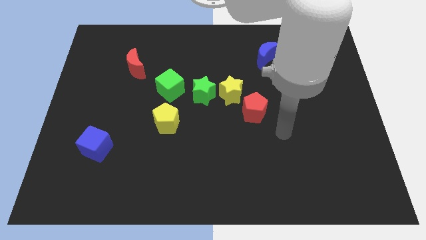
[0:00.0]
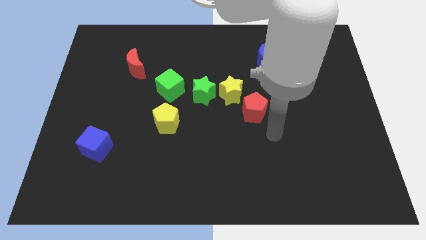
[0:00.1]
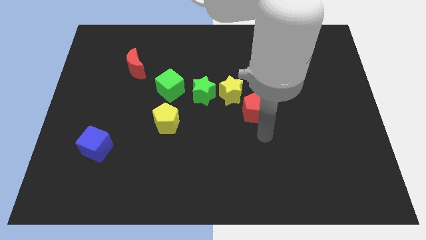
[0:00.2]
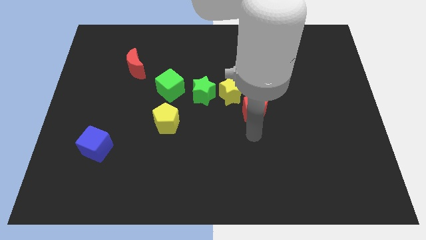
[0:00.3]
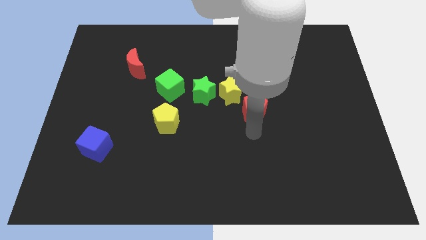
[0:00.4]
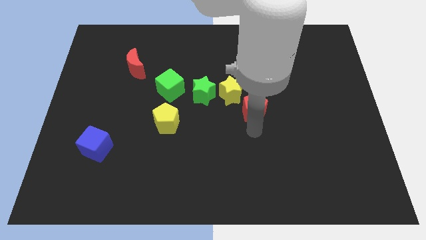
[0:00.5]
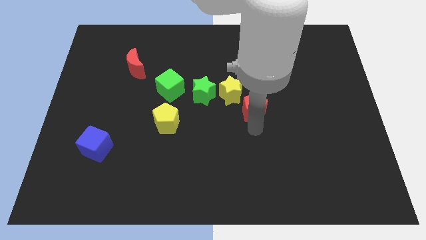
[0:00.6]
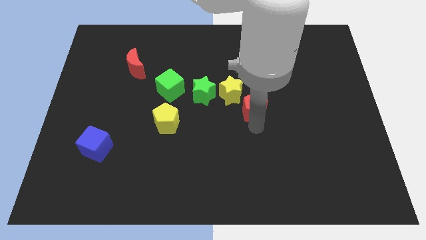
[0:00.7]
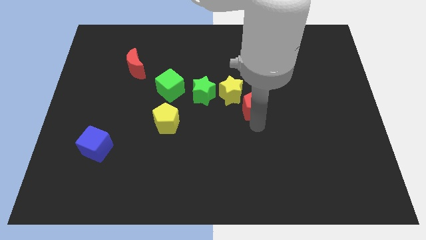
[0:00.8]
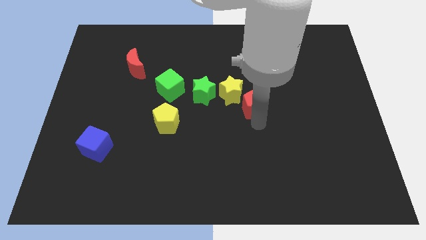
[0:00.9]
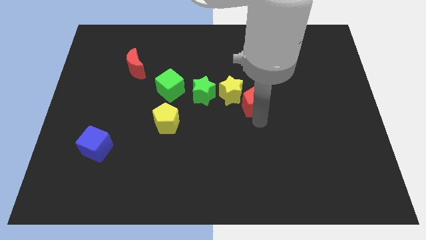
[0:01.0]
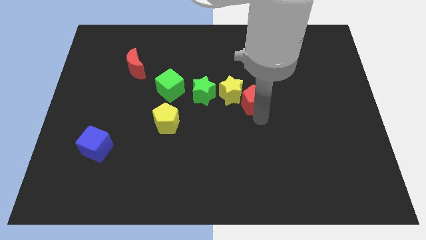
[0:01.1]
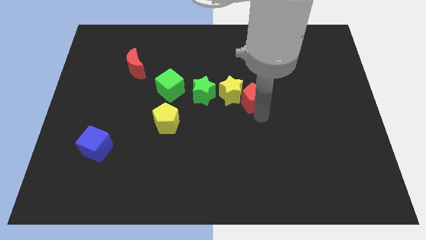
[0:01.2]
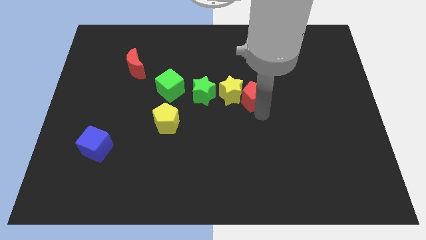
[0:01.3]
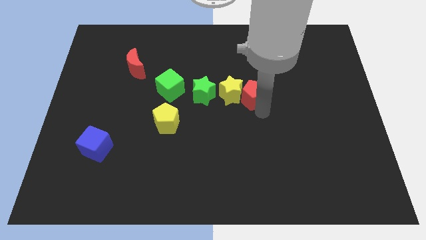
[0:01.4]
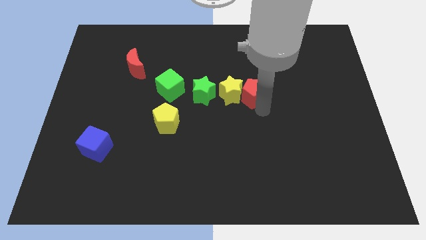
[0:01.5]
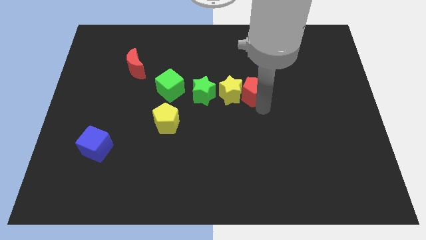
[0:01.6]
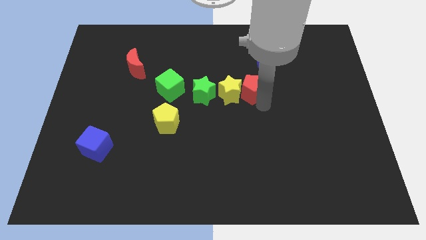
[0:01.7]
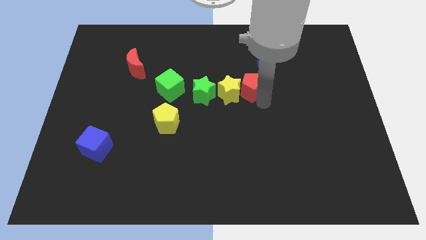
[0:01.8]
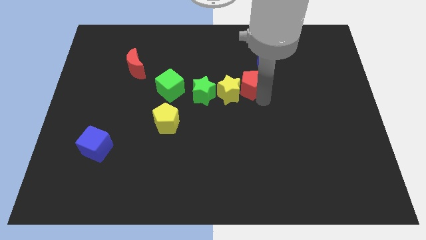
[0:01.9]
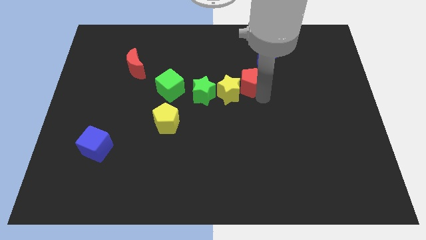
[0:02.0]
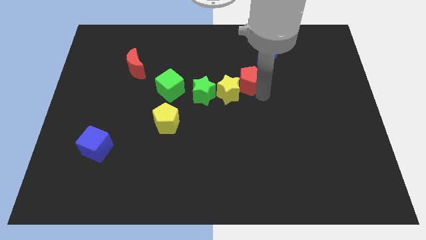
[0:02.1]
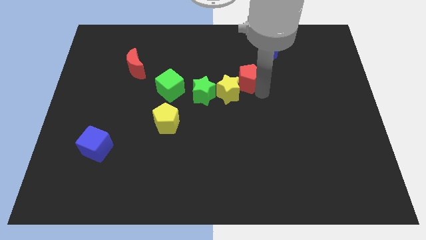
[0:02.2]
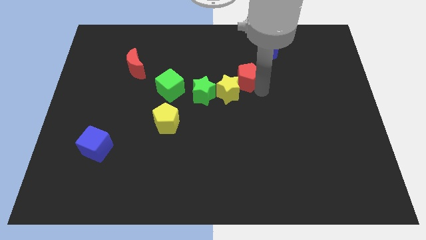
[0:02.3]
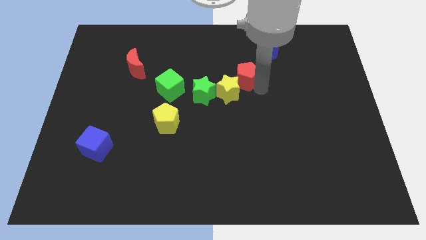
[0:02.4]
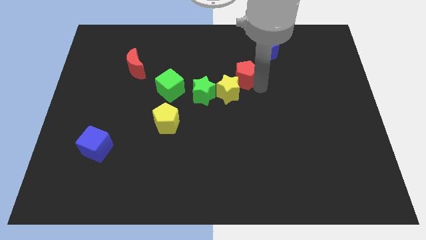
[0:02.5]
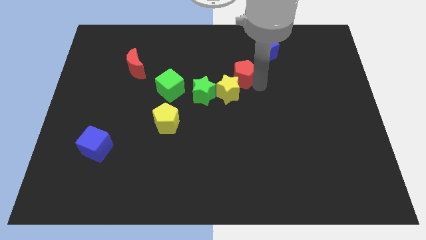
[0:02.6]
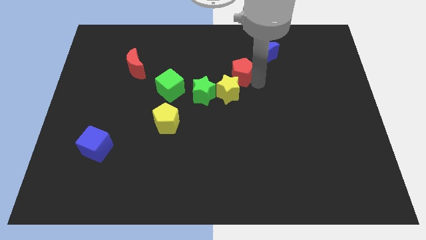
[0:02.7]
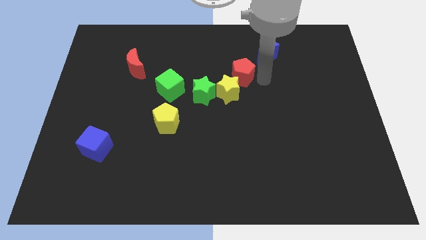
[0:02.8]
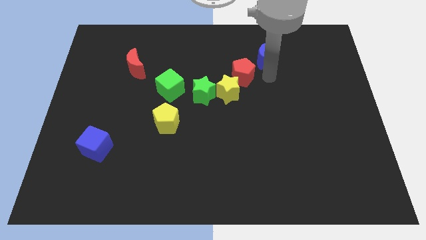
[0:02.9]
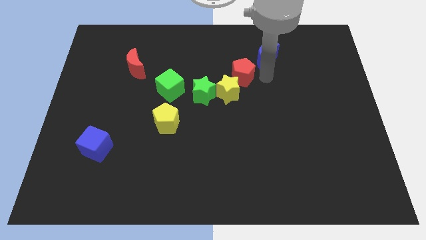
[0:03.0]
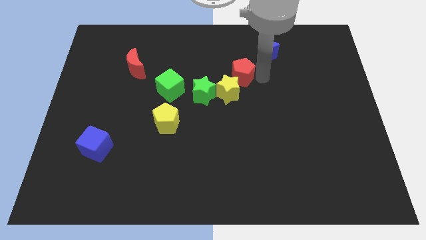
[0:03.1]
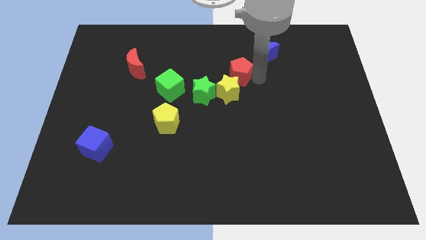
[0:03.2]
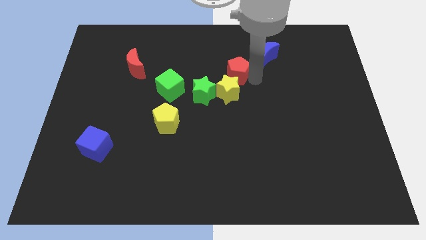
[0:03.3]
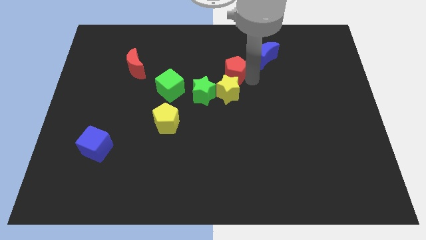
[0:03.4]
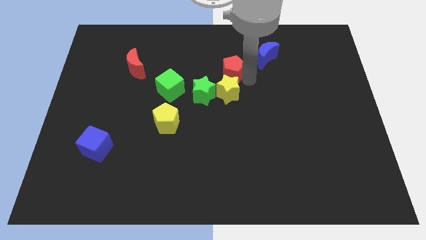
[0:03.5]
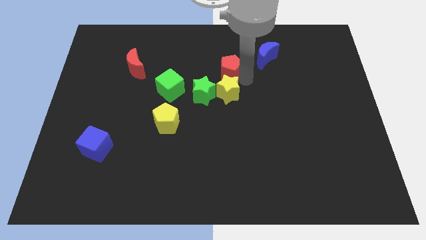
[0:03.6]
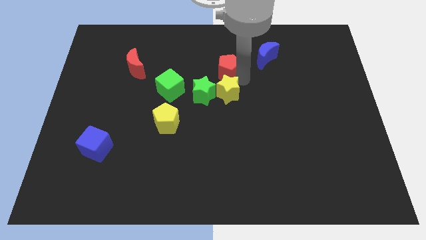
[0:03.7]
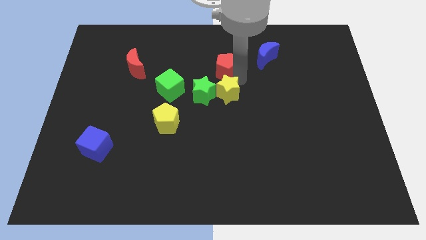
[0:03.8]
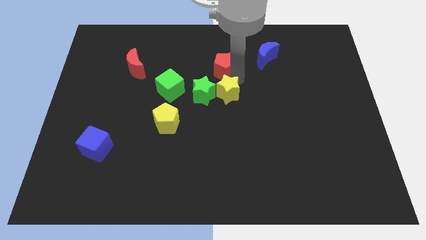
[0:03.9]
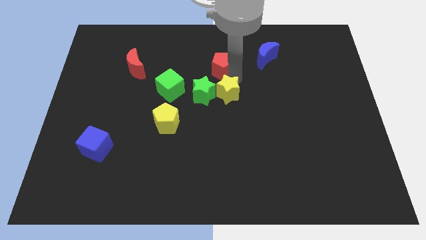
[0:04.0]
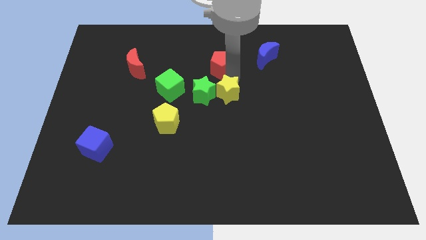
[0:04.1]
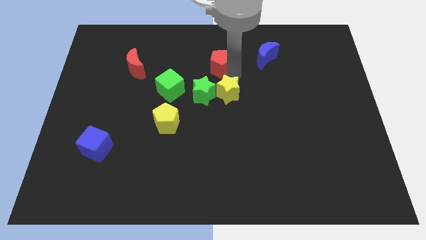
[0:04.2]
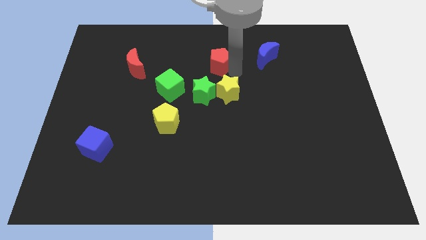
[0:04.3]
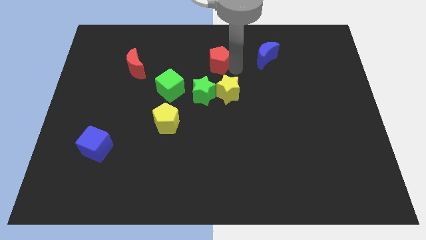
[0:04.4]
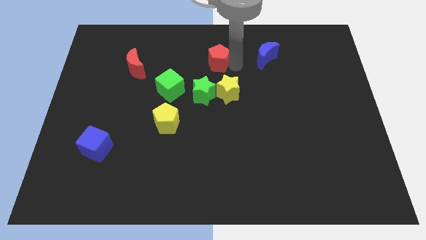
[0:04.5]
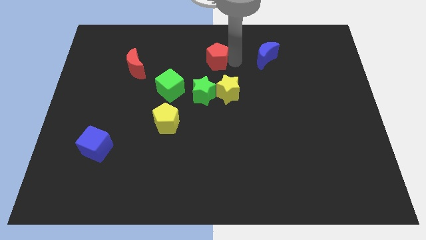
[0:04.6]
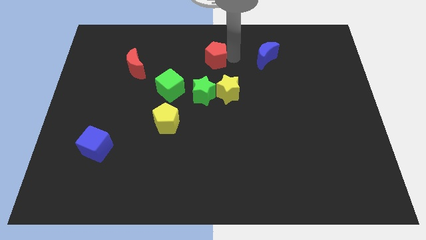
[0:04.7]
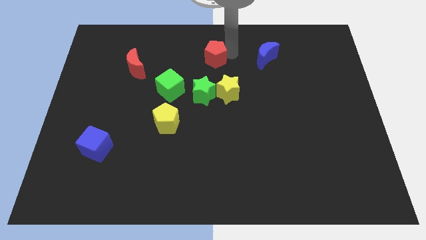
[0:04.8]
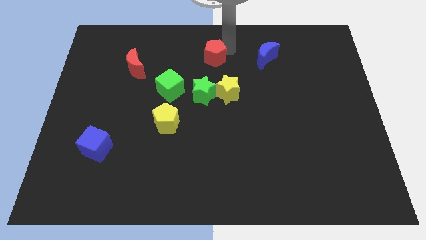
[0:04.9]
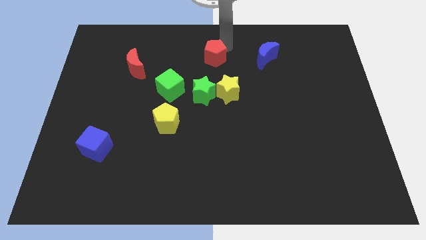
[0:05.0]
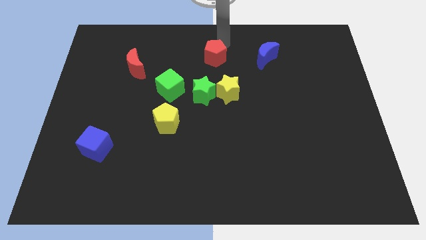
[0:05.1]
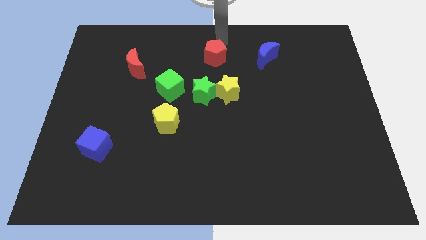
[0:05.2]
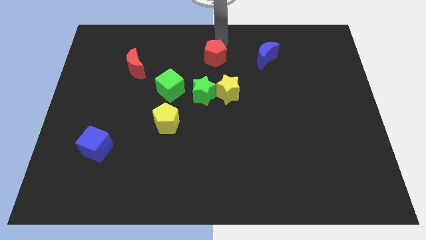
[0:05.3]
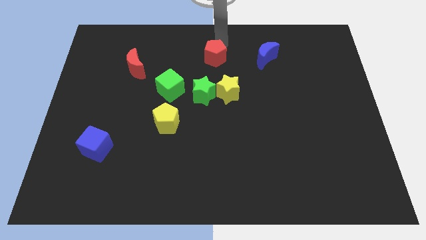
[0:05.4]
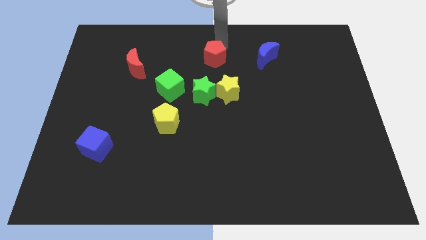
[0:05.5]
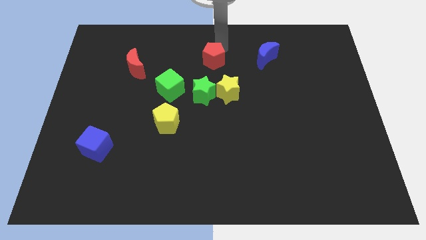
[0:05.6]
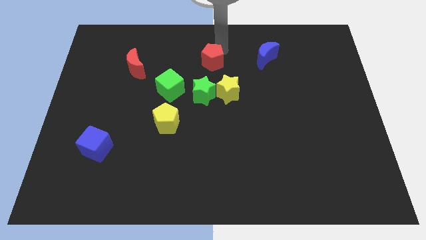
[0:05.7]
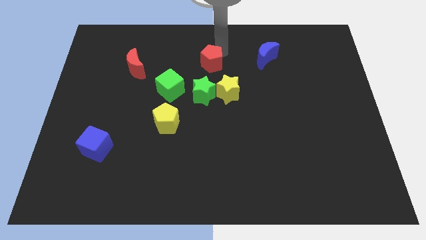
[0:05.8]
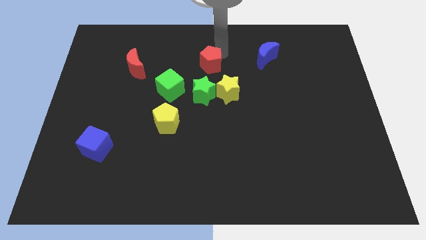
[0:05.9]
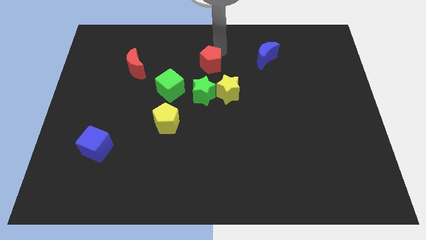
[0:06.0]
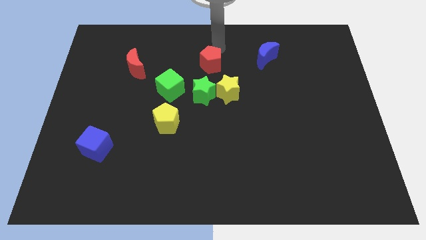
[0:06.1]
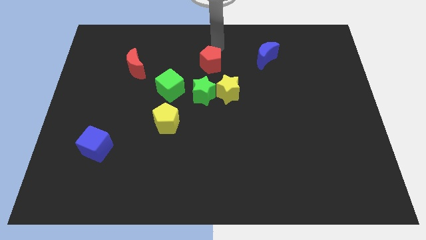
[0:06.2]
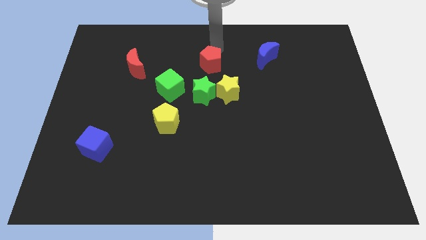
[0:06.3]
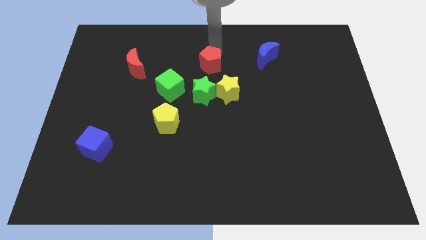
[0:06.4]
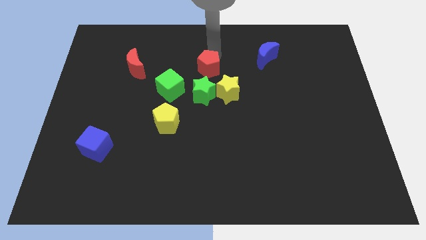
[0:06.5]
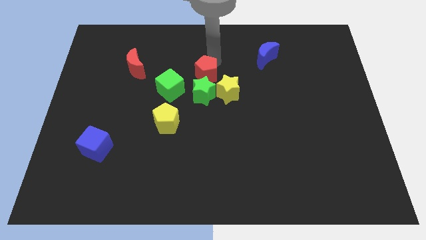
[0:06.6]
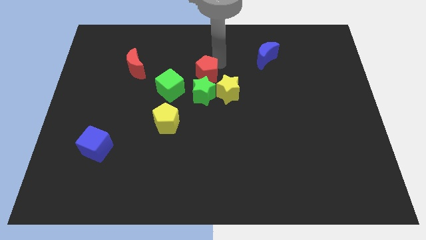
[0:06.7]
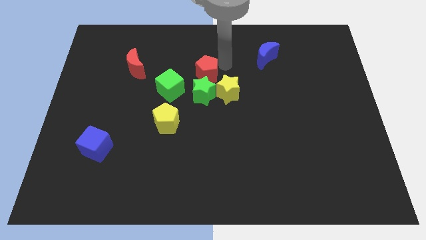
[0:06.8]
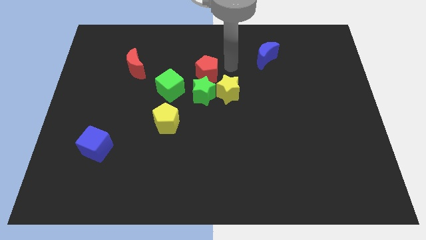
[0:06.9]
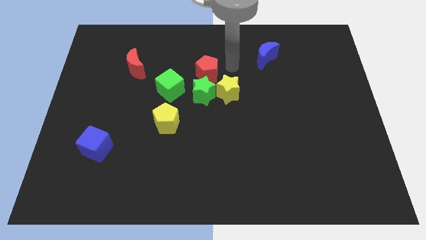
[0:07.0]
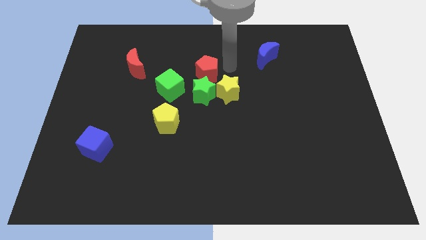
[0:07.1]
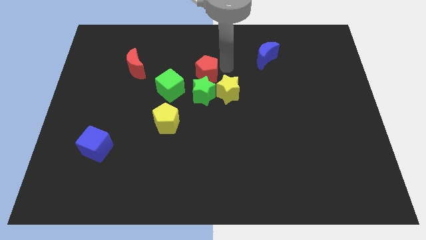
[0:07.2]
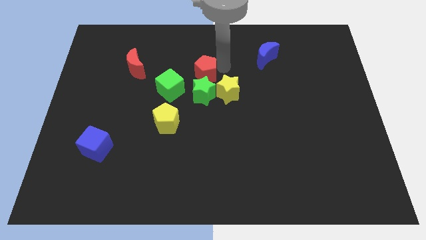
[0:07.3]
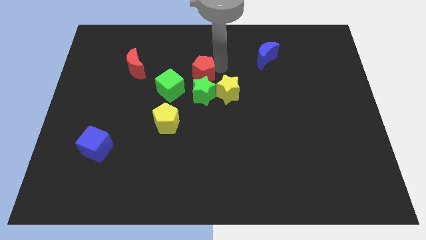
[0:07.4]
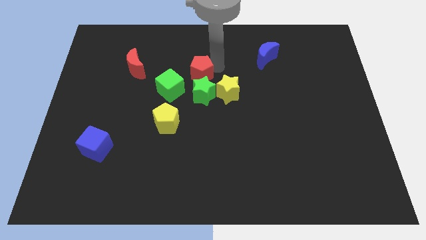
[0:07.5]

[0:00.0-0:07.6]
push the red pentagon to the top left side of the green star

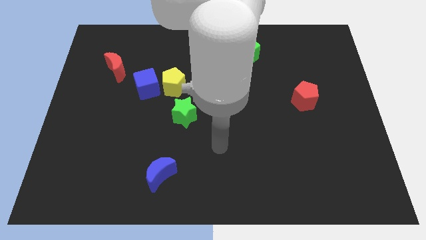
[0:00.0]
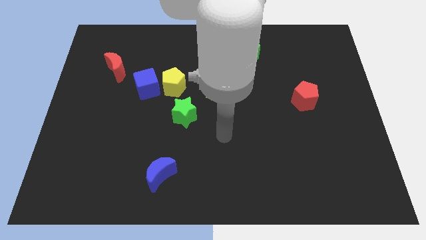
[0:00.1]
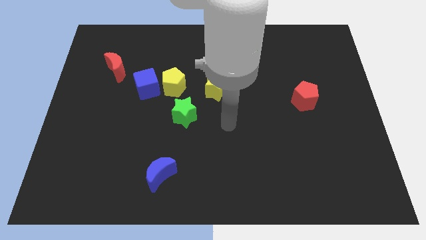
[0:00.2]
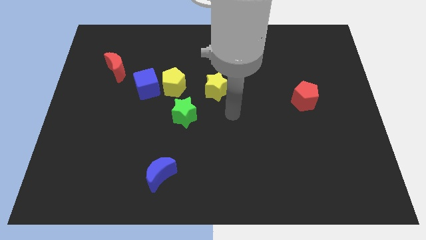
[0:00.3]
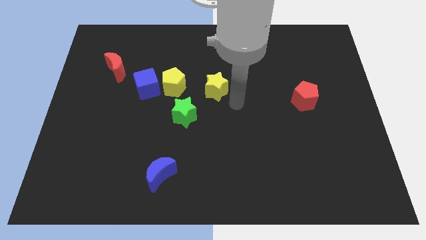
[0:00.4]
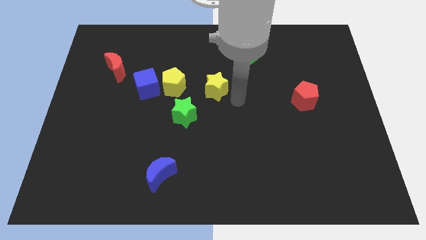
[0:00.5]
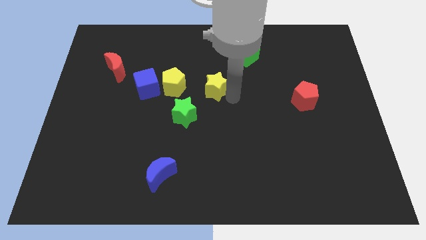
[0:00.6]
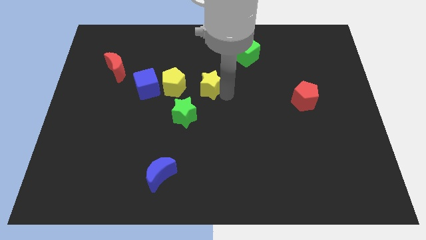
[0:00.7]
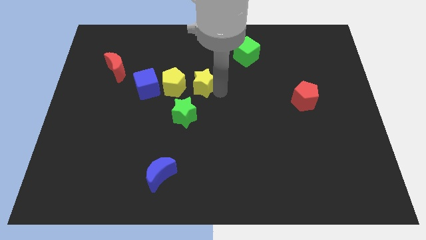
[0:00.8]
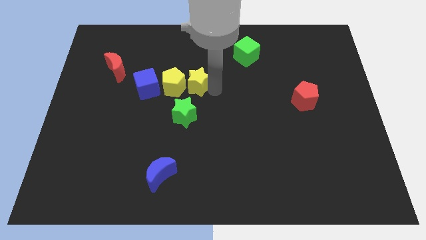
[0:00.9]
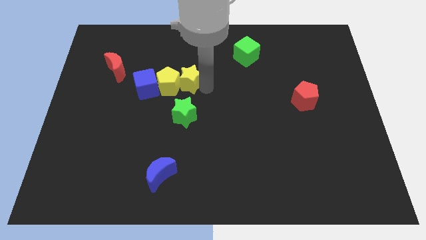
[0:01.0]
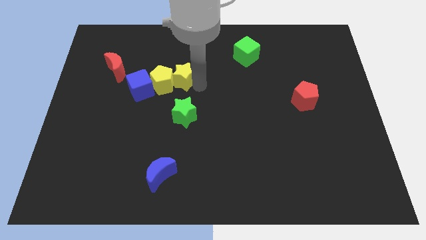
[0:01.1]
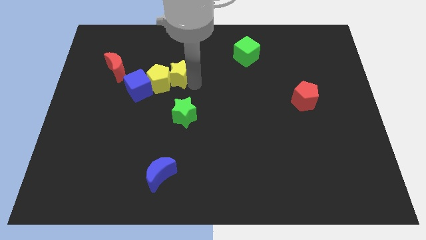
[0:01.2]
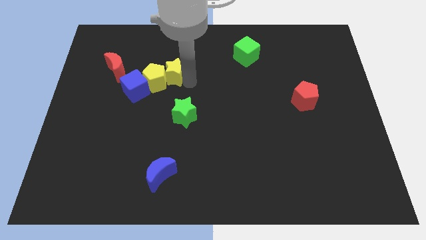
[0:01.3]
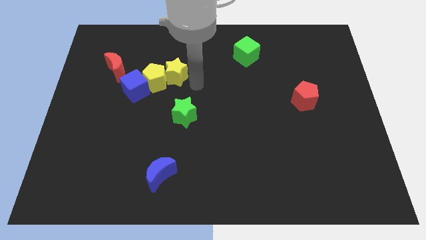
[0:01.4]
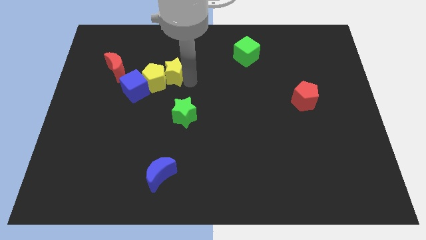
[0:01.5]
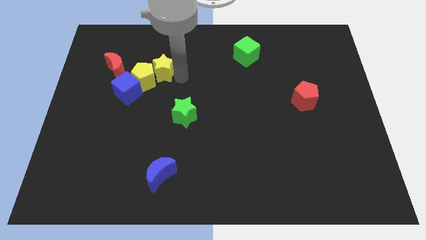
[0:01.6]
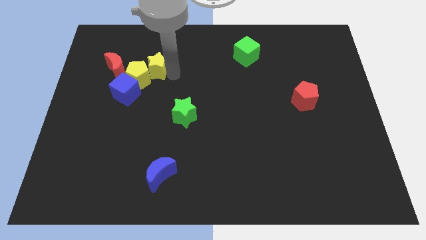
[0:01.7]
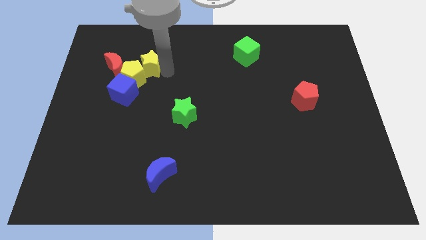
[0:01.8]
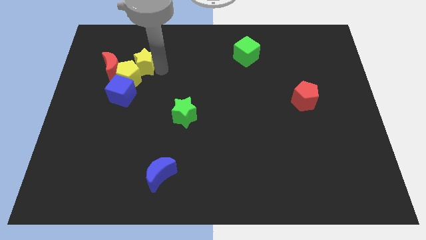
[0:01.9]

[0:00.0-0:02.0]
slide the yellow star to the top of the blue cube
